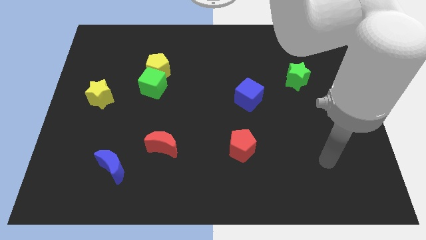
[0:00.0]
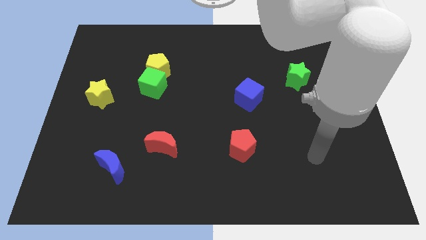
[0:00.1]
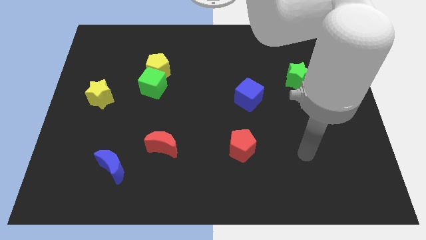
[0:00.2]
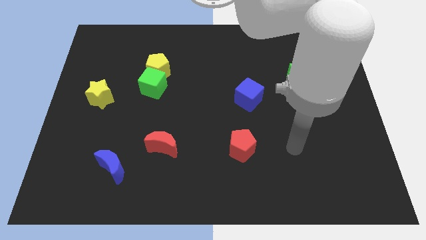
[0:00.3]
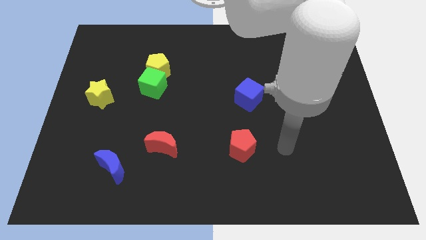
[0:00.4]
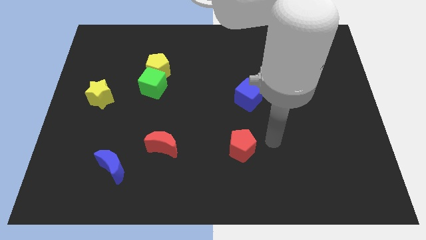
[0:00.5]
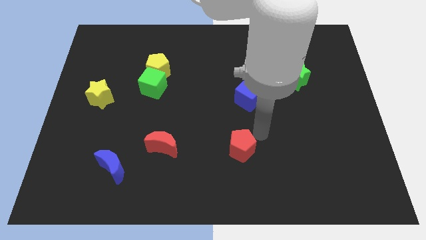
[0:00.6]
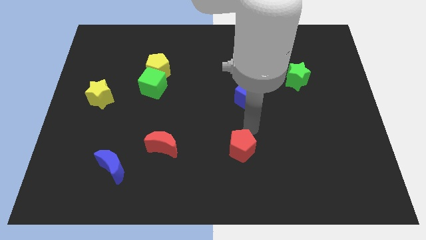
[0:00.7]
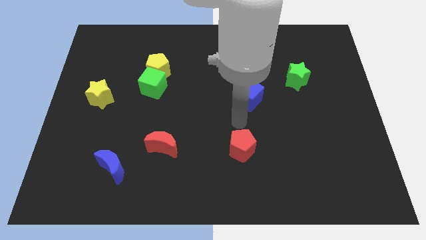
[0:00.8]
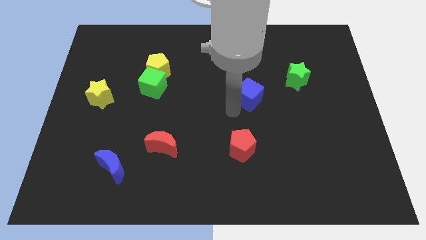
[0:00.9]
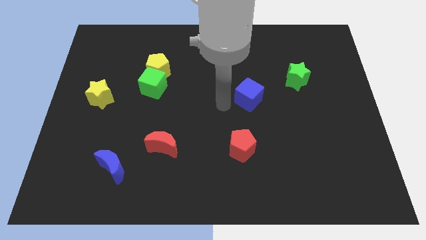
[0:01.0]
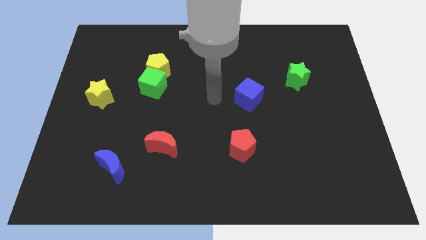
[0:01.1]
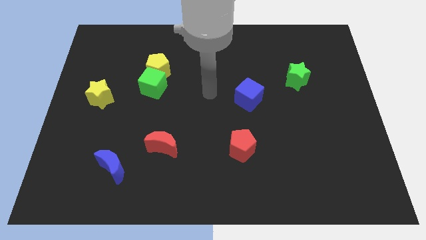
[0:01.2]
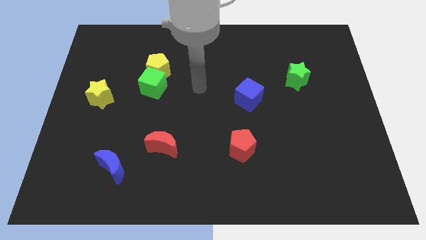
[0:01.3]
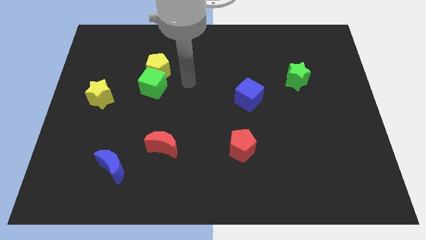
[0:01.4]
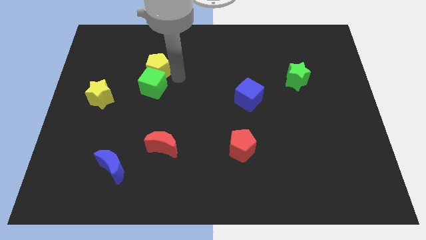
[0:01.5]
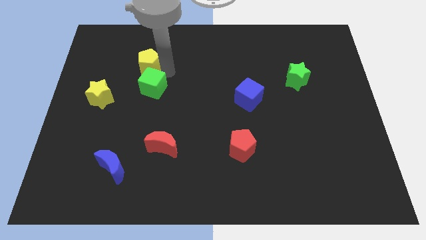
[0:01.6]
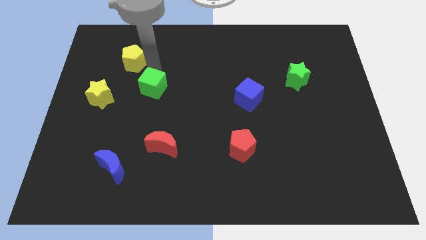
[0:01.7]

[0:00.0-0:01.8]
separate the green cube from the yellow pentagon

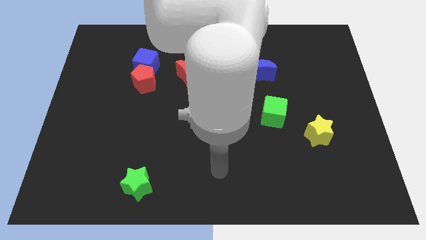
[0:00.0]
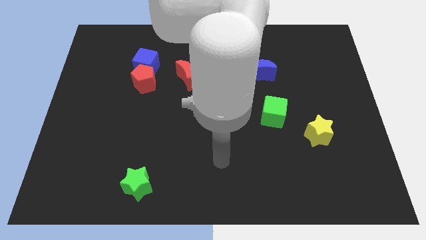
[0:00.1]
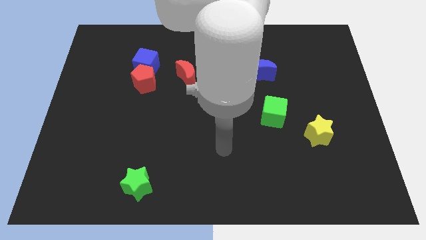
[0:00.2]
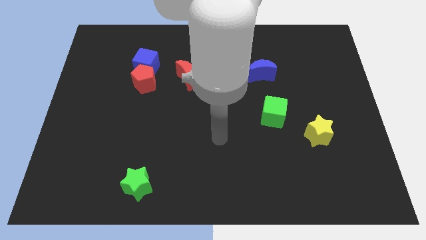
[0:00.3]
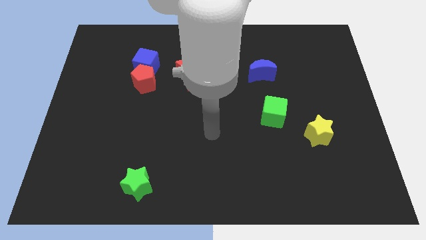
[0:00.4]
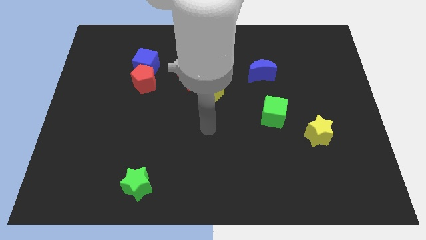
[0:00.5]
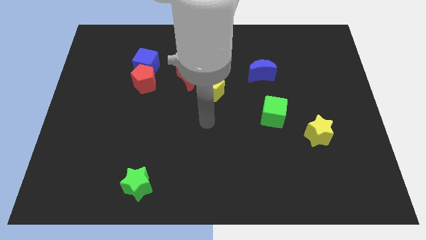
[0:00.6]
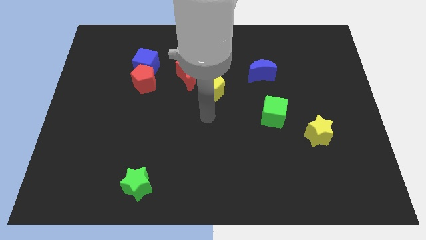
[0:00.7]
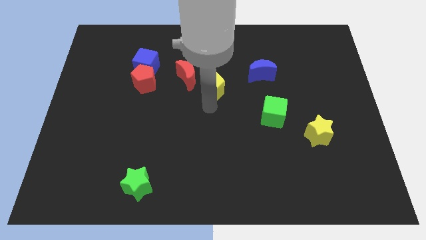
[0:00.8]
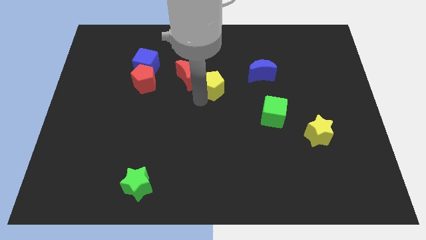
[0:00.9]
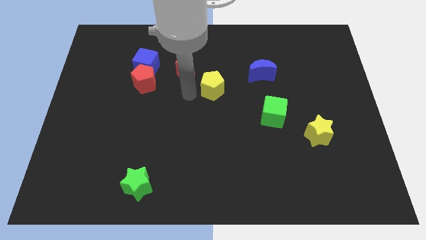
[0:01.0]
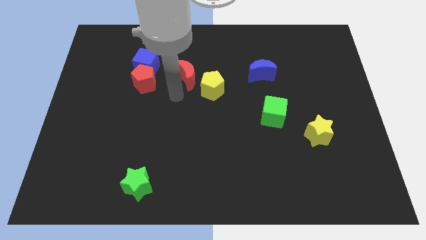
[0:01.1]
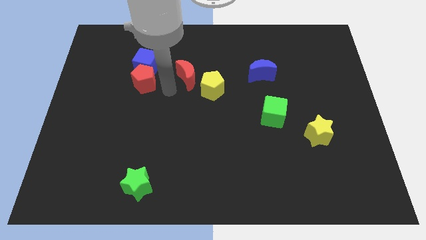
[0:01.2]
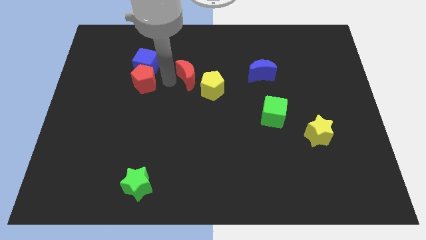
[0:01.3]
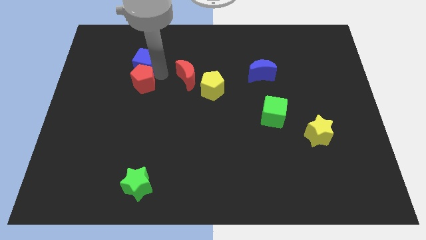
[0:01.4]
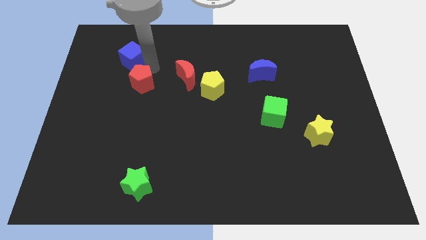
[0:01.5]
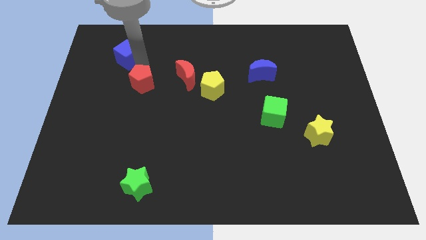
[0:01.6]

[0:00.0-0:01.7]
pull the red pentagon apart from the blue cube

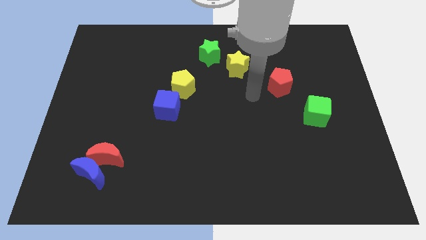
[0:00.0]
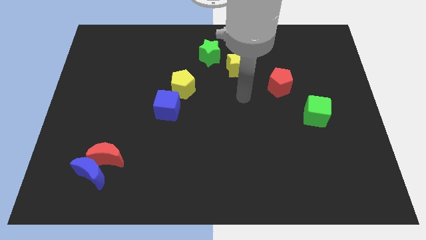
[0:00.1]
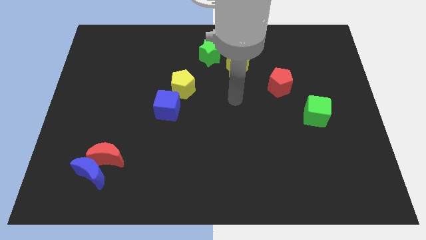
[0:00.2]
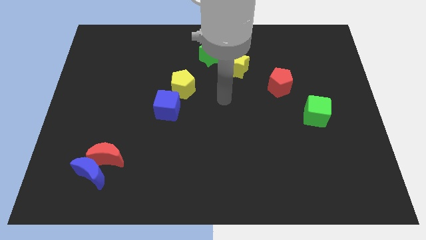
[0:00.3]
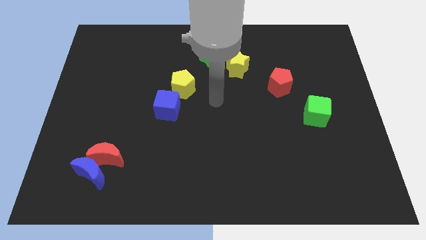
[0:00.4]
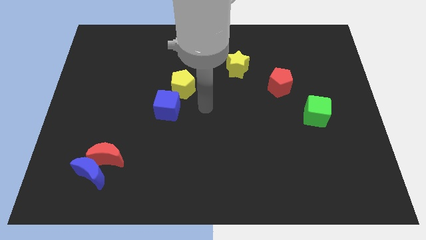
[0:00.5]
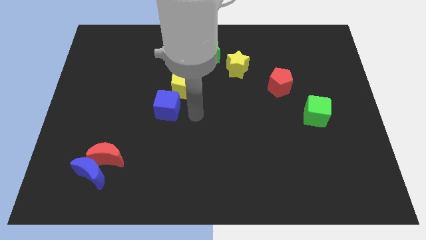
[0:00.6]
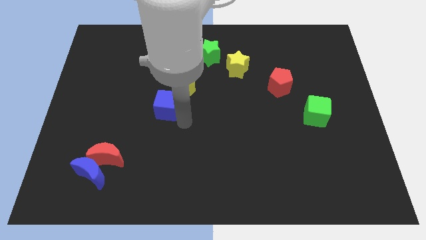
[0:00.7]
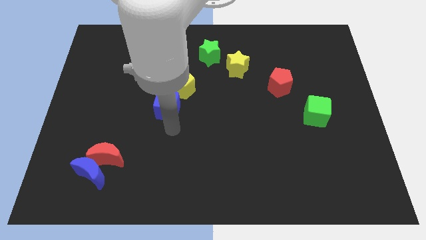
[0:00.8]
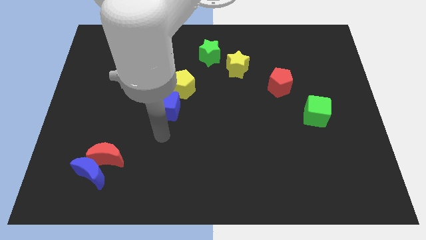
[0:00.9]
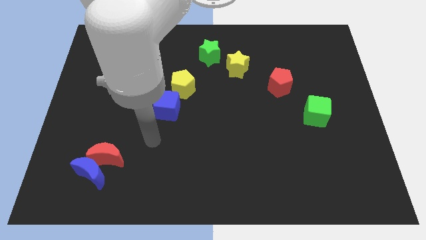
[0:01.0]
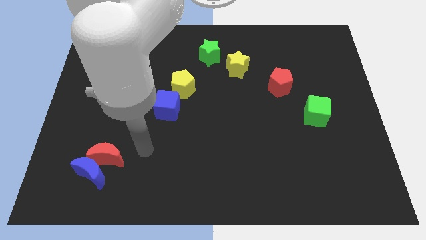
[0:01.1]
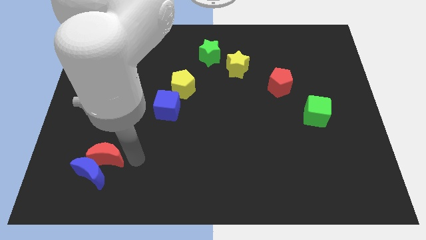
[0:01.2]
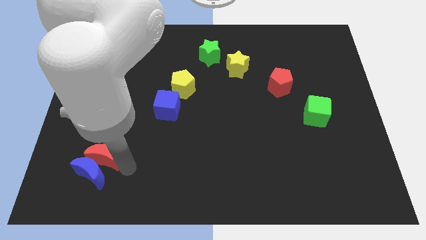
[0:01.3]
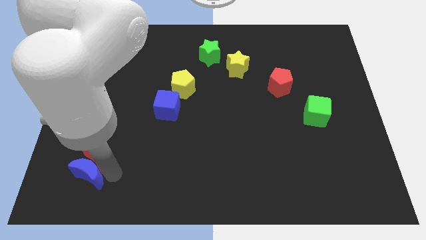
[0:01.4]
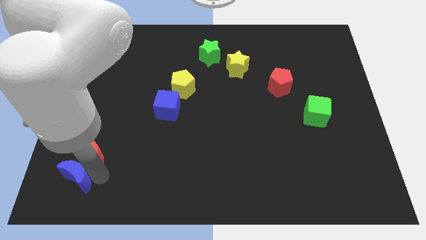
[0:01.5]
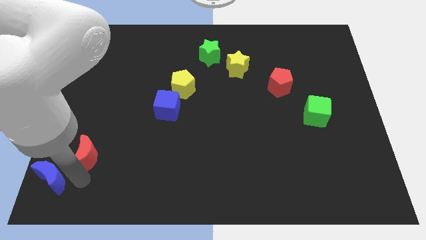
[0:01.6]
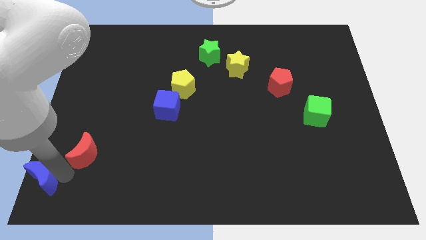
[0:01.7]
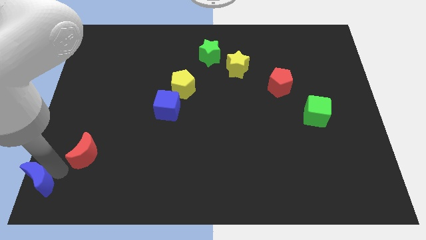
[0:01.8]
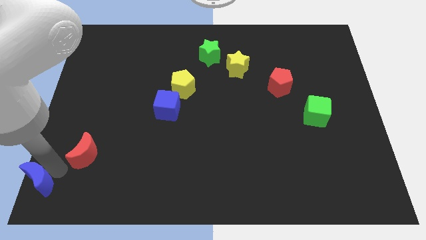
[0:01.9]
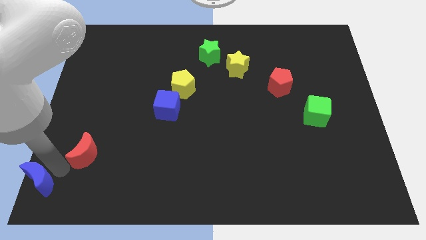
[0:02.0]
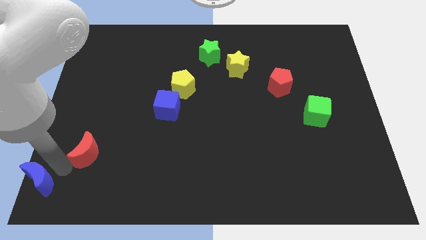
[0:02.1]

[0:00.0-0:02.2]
move the red moon away from the blue moon

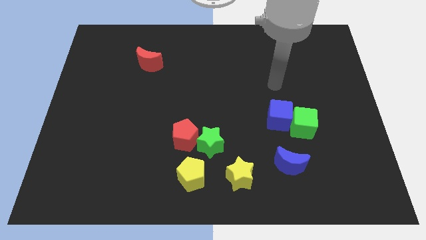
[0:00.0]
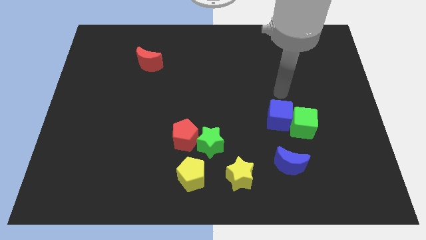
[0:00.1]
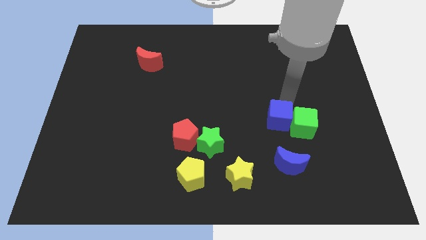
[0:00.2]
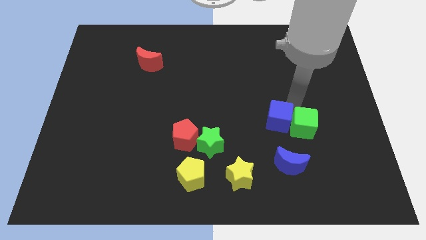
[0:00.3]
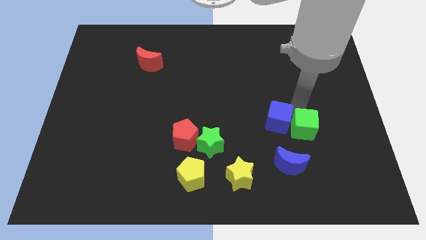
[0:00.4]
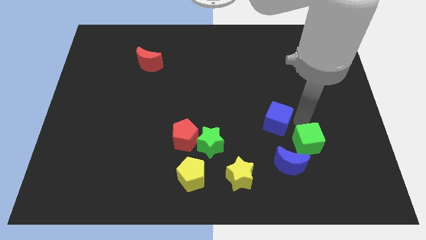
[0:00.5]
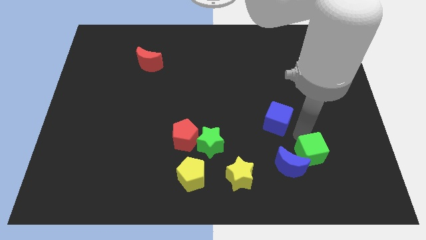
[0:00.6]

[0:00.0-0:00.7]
pull the blue cube apart from the green cube

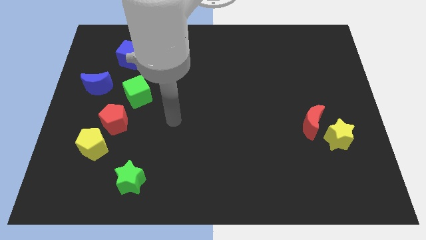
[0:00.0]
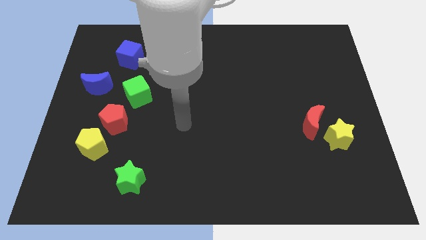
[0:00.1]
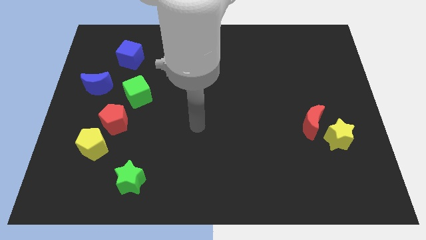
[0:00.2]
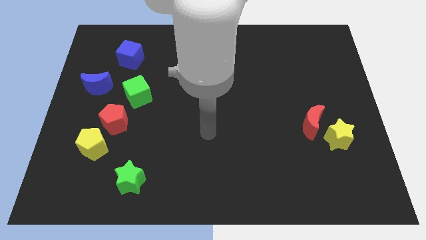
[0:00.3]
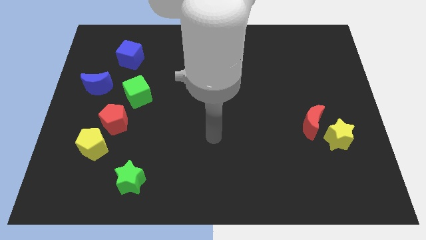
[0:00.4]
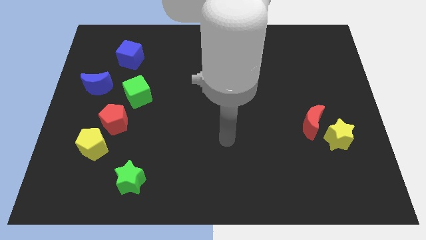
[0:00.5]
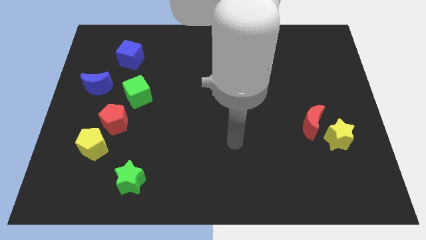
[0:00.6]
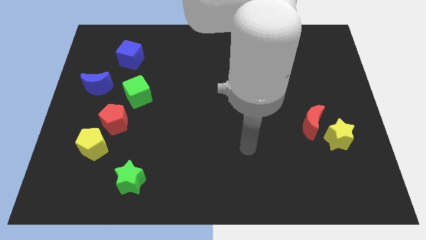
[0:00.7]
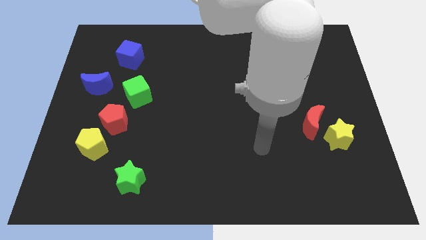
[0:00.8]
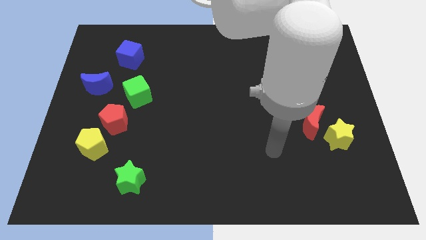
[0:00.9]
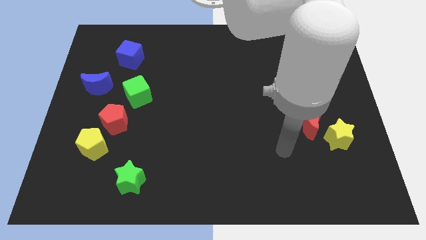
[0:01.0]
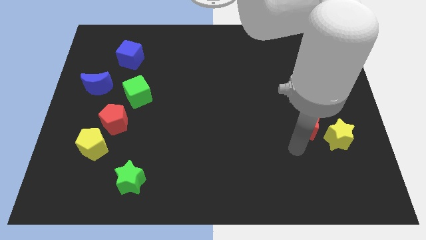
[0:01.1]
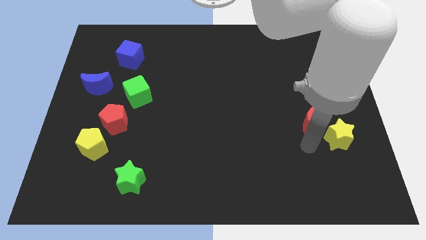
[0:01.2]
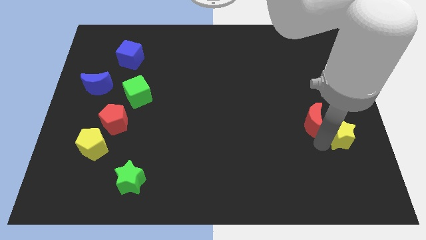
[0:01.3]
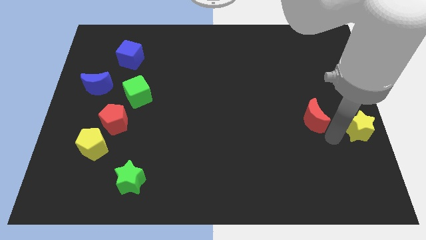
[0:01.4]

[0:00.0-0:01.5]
move the red moon away from the yellow star

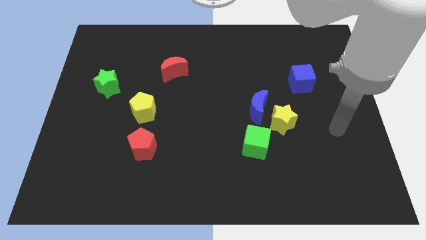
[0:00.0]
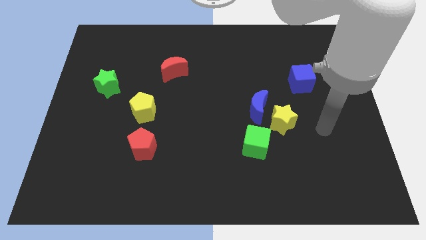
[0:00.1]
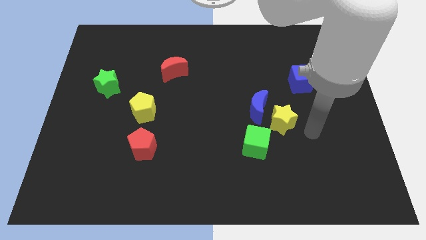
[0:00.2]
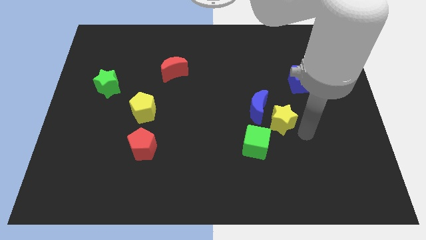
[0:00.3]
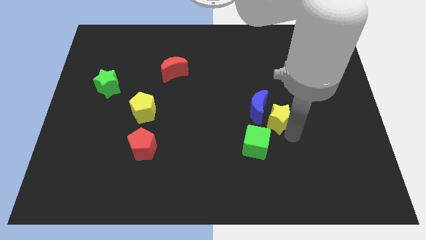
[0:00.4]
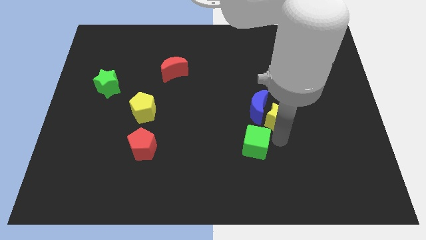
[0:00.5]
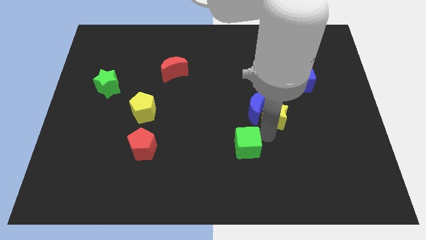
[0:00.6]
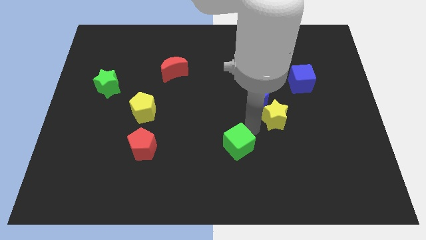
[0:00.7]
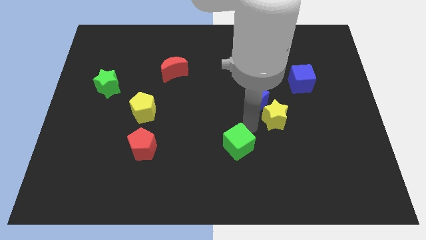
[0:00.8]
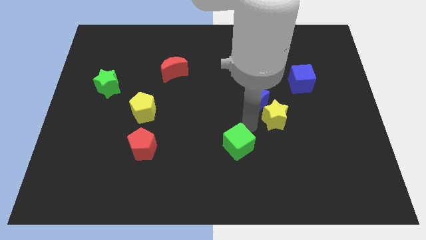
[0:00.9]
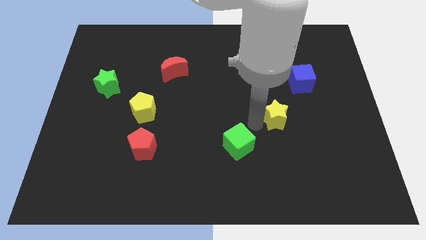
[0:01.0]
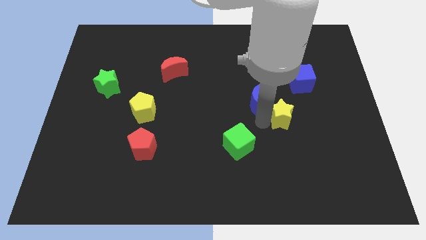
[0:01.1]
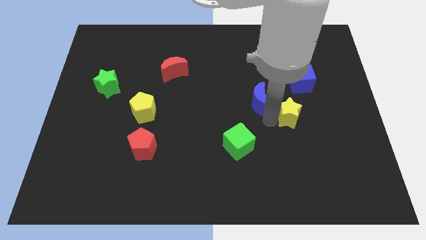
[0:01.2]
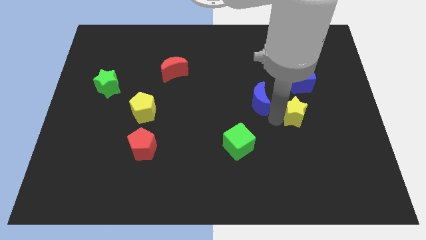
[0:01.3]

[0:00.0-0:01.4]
separate the yellow star from the blue moon and green cube
